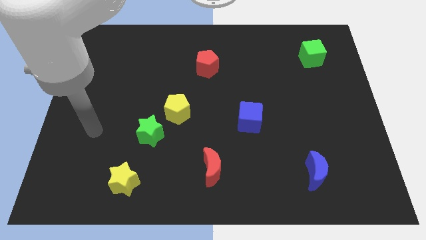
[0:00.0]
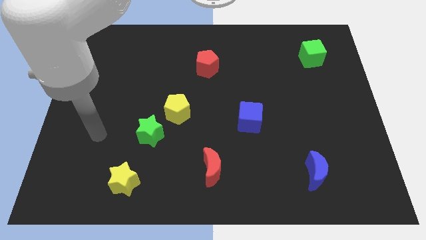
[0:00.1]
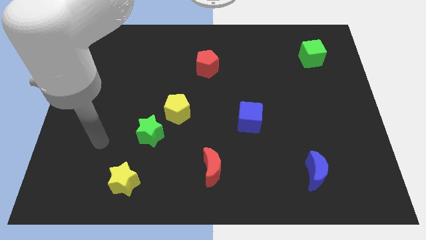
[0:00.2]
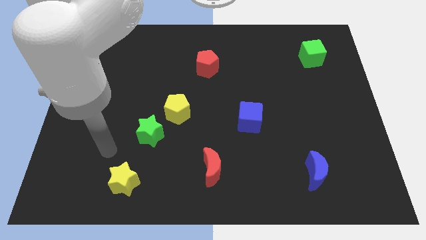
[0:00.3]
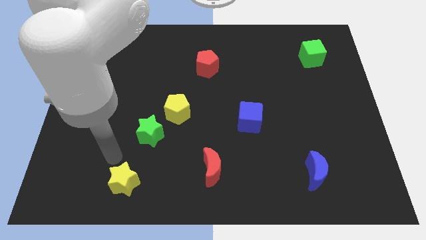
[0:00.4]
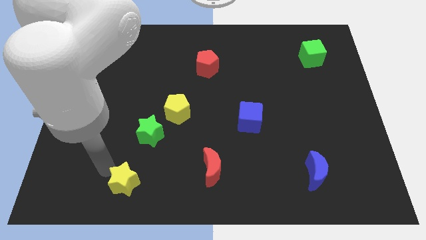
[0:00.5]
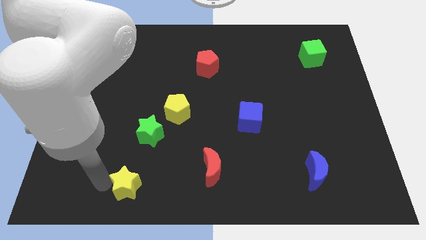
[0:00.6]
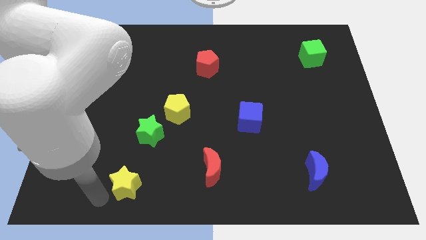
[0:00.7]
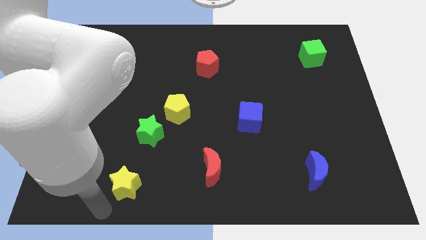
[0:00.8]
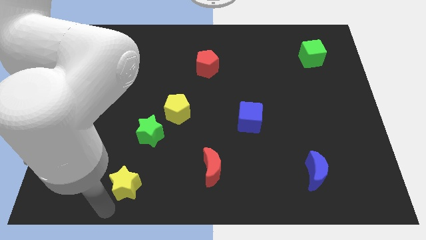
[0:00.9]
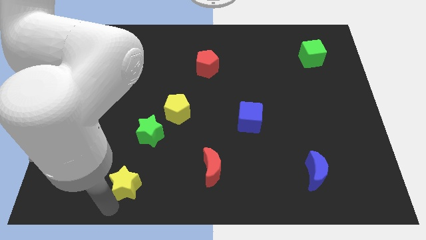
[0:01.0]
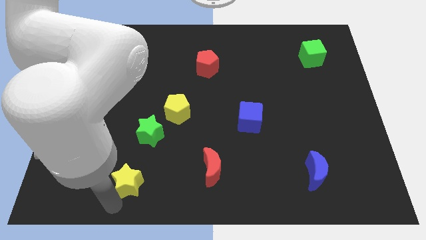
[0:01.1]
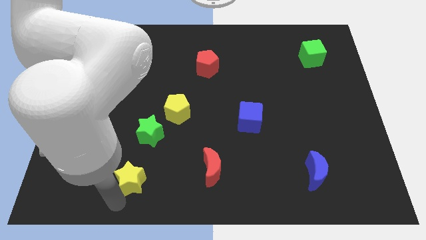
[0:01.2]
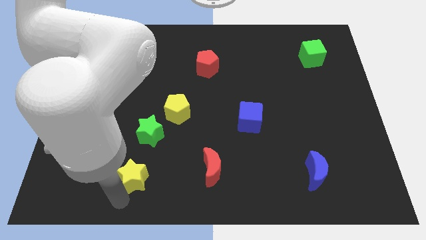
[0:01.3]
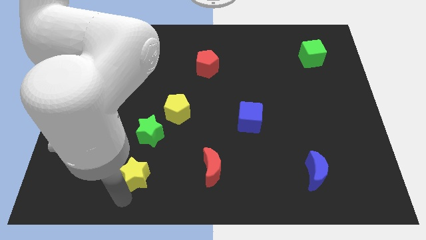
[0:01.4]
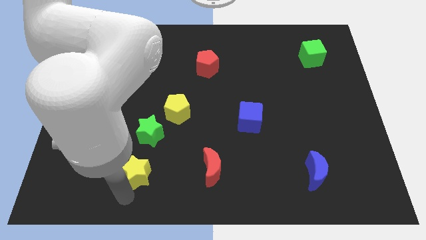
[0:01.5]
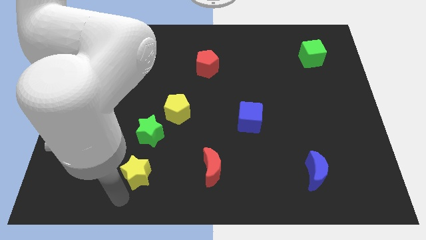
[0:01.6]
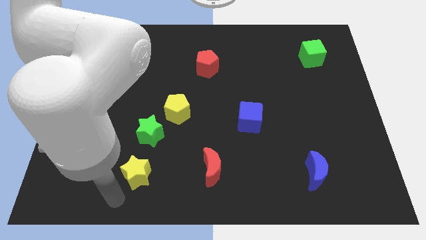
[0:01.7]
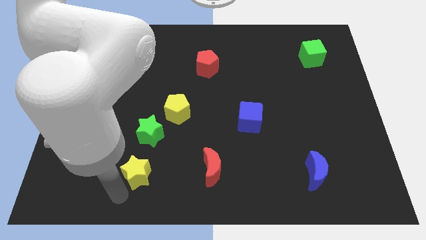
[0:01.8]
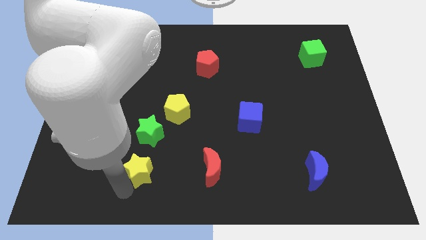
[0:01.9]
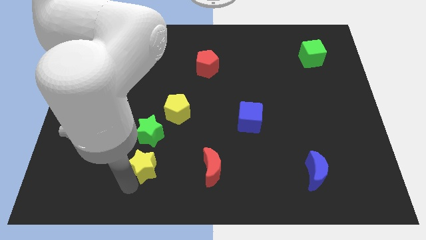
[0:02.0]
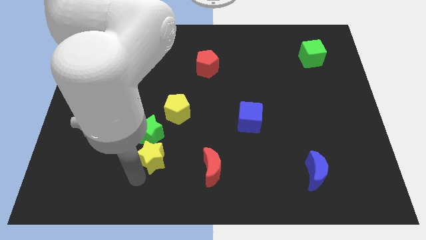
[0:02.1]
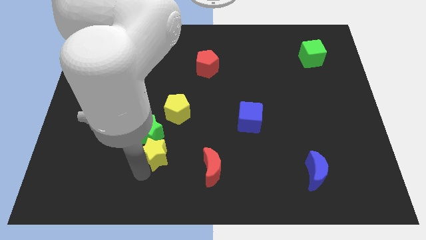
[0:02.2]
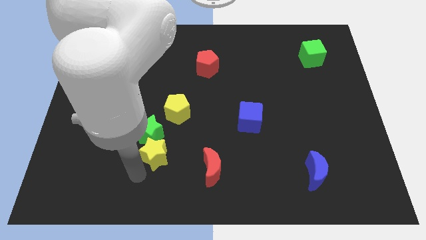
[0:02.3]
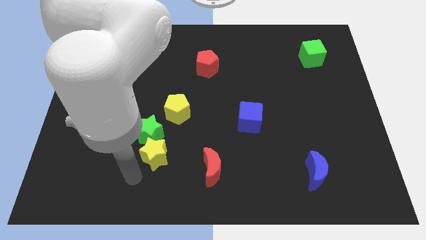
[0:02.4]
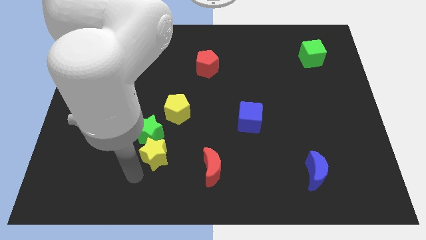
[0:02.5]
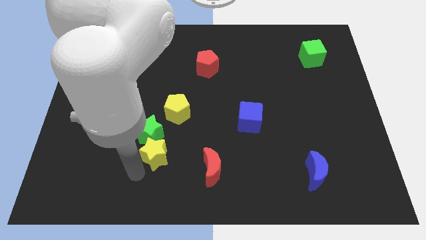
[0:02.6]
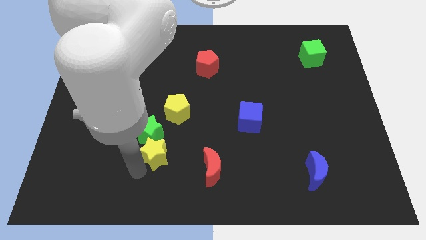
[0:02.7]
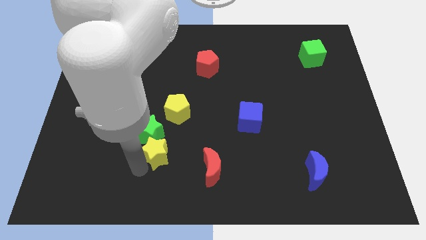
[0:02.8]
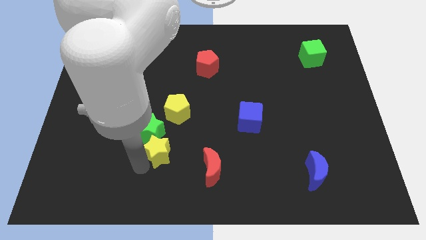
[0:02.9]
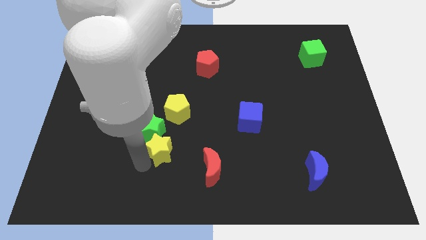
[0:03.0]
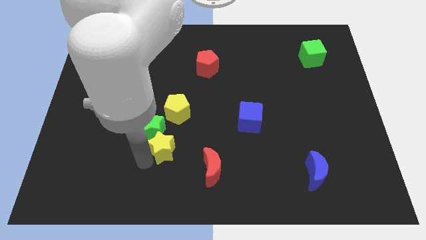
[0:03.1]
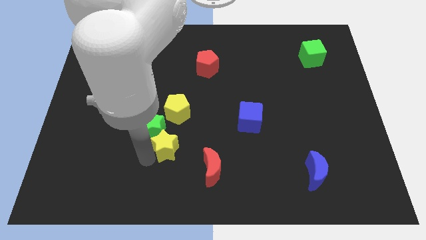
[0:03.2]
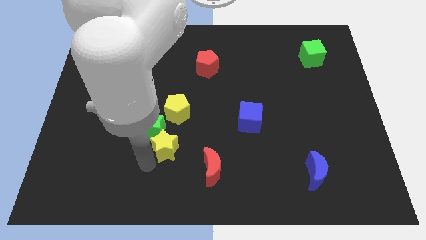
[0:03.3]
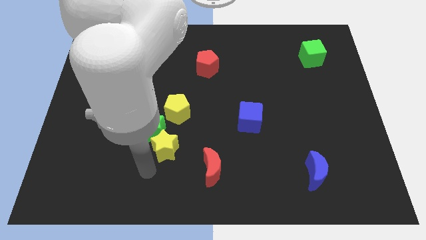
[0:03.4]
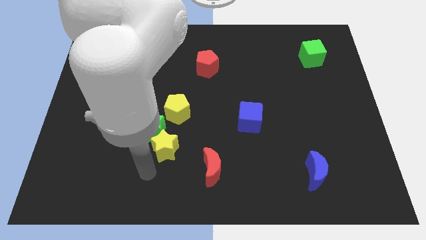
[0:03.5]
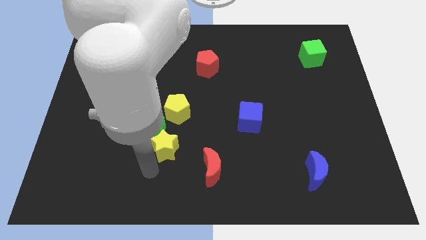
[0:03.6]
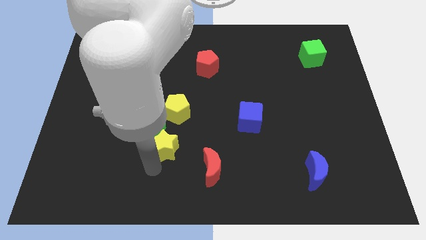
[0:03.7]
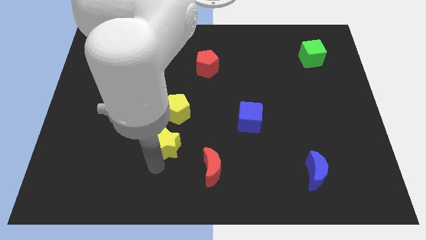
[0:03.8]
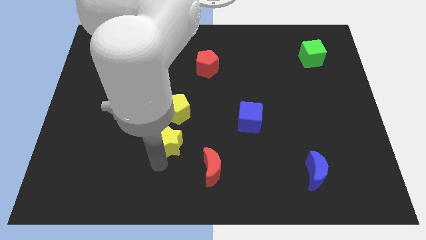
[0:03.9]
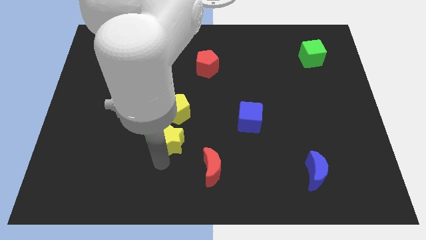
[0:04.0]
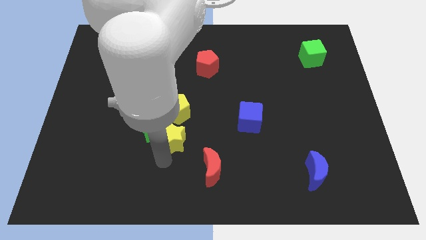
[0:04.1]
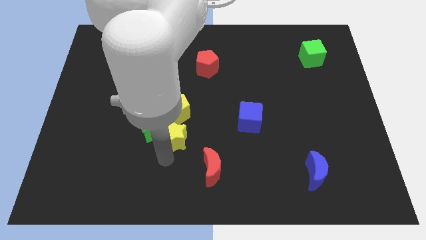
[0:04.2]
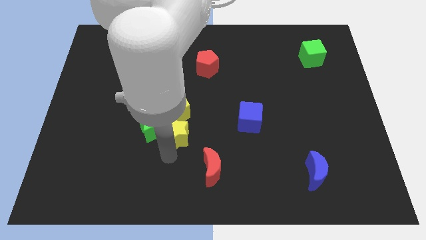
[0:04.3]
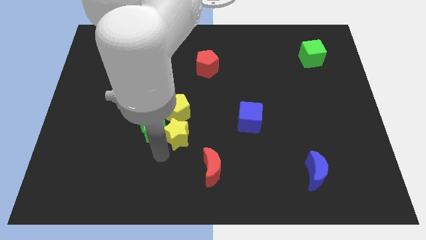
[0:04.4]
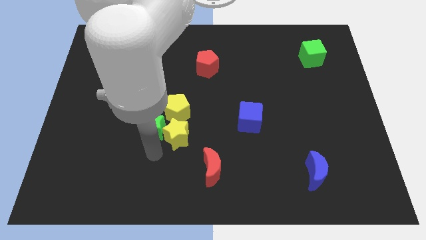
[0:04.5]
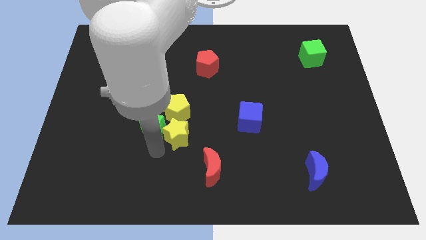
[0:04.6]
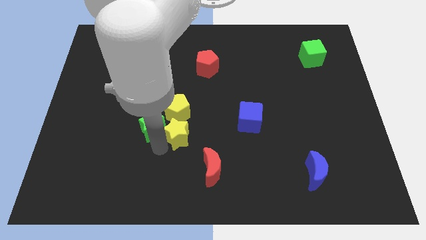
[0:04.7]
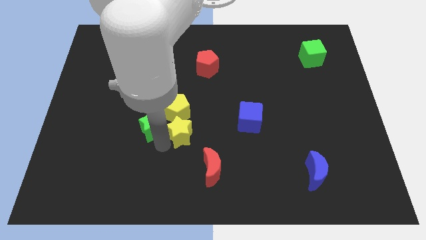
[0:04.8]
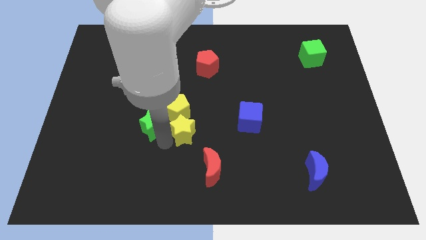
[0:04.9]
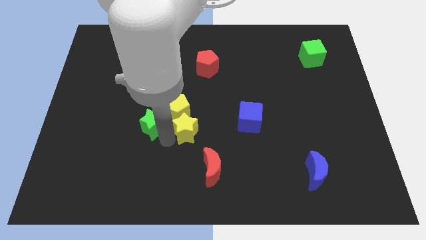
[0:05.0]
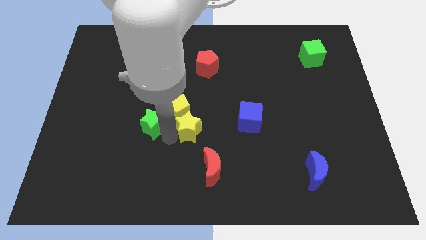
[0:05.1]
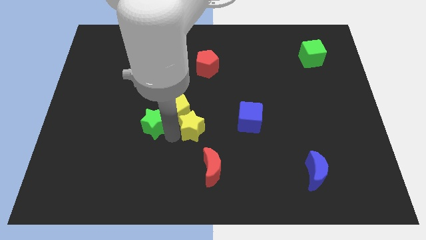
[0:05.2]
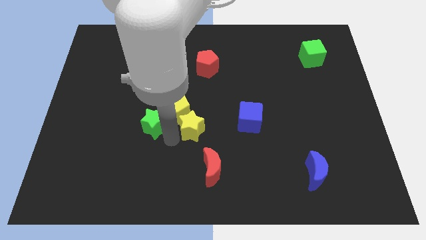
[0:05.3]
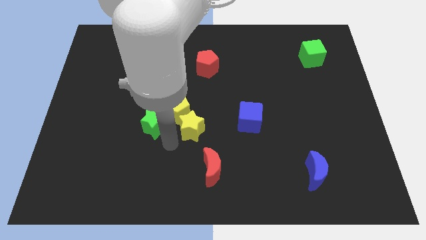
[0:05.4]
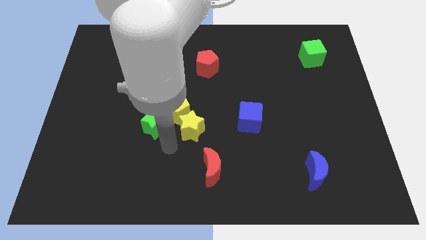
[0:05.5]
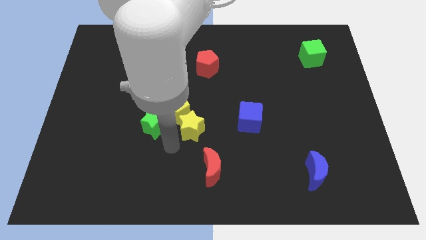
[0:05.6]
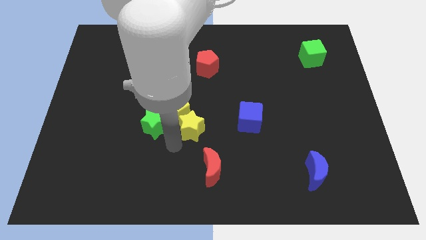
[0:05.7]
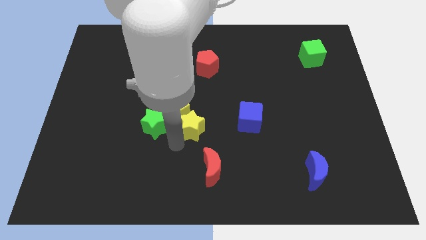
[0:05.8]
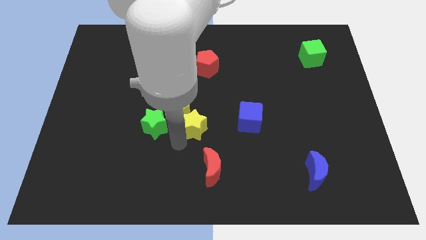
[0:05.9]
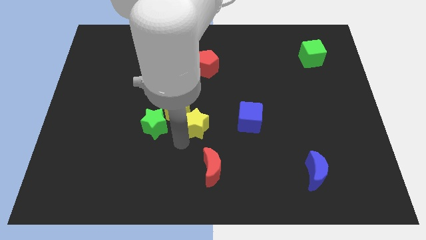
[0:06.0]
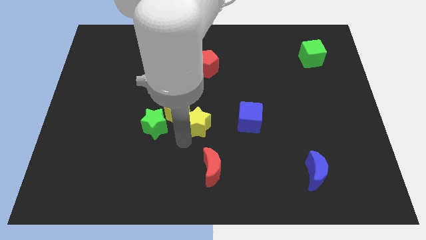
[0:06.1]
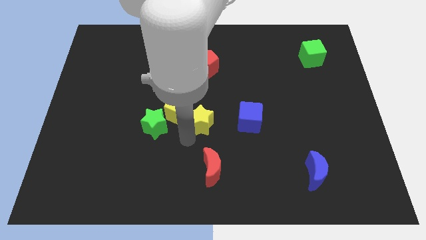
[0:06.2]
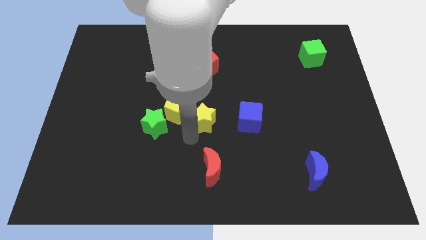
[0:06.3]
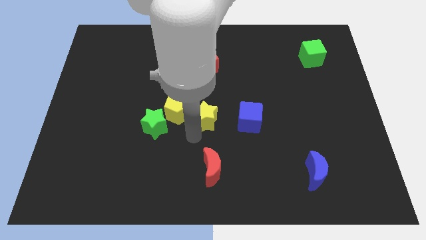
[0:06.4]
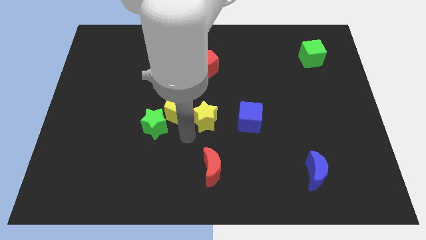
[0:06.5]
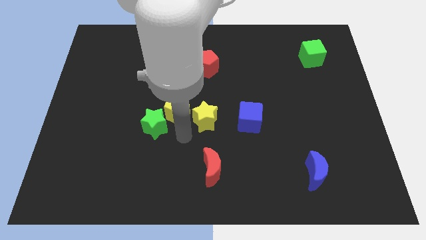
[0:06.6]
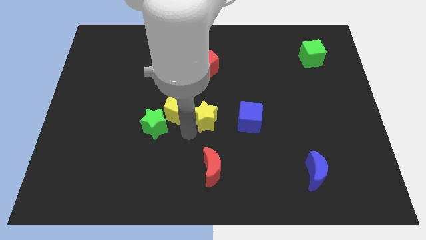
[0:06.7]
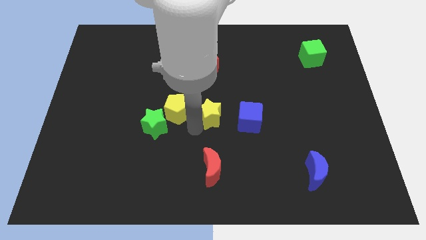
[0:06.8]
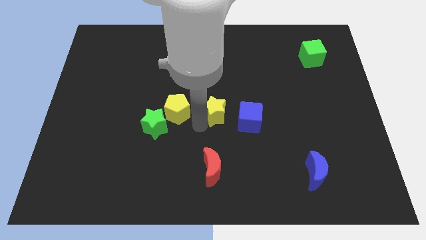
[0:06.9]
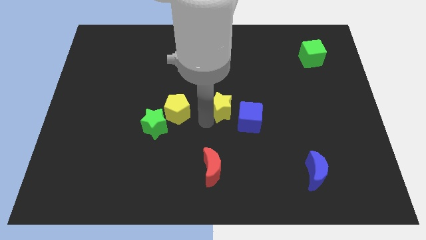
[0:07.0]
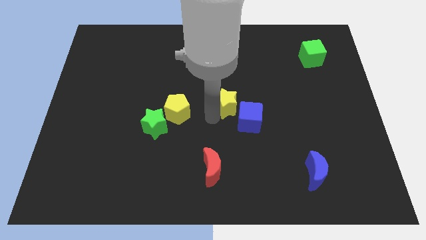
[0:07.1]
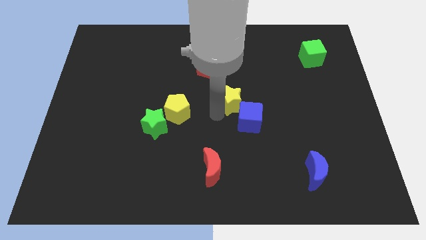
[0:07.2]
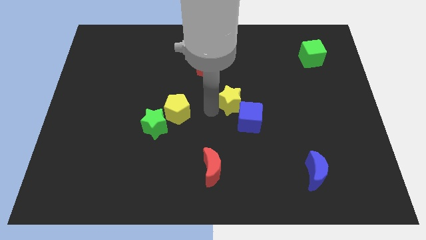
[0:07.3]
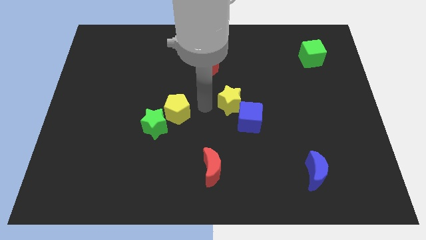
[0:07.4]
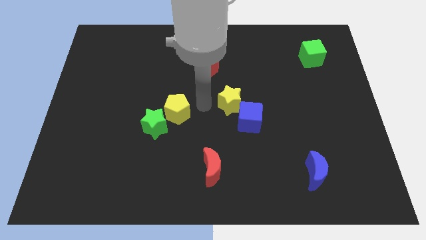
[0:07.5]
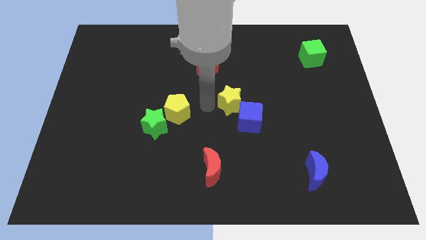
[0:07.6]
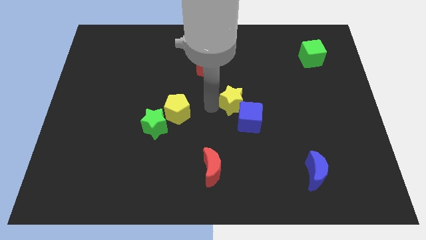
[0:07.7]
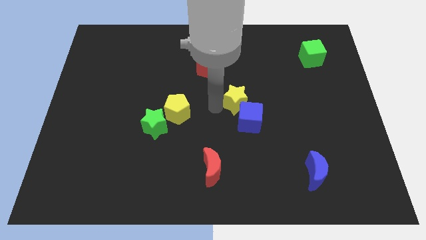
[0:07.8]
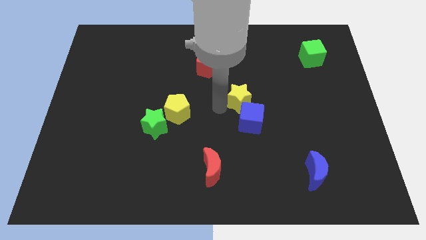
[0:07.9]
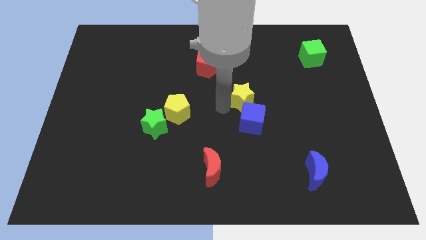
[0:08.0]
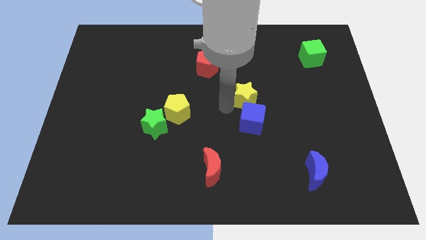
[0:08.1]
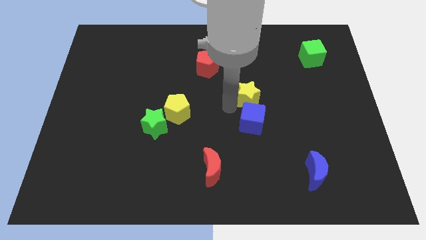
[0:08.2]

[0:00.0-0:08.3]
slide the yellow star to the top right side of the blue cube
